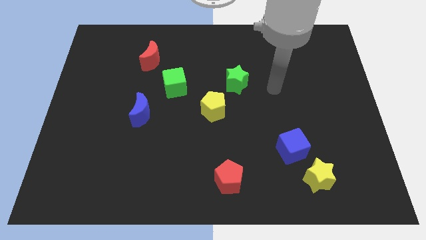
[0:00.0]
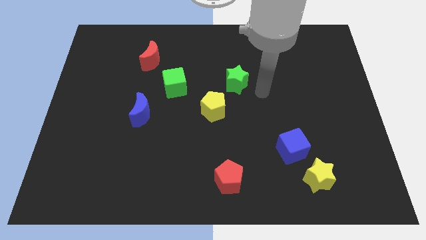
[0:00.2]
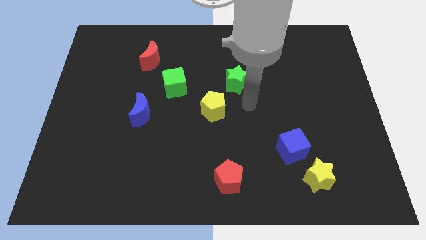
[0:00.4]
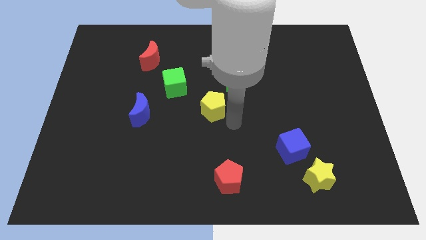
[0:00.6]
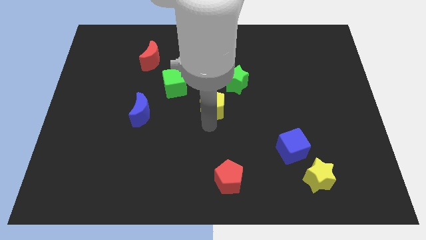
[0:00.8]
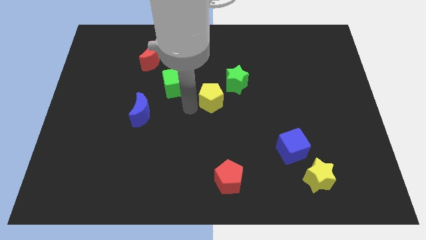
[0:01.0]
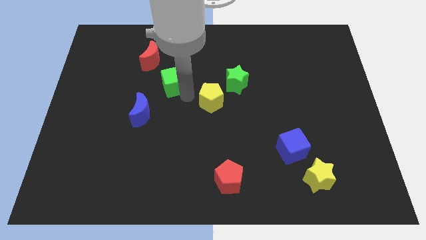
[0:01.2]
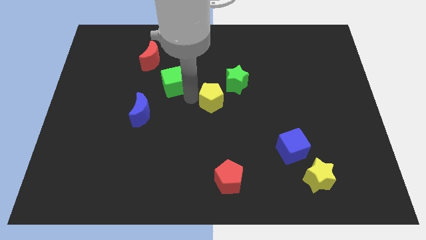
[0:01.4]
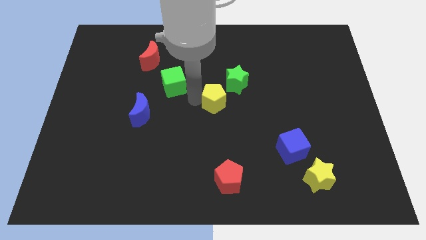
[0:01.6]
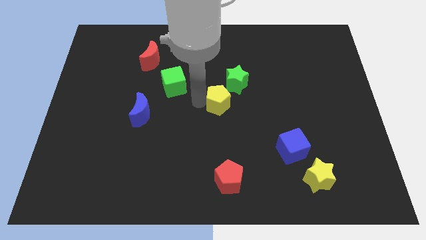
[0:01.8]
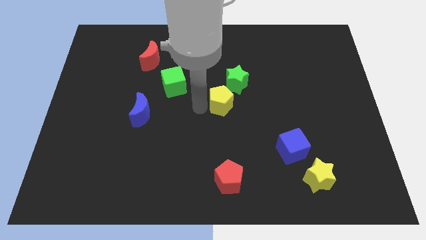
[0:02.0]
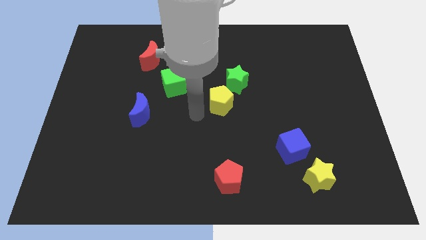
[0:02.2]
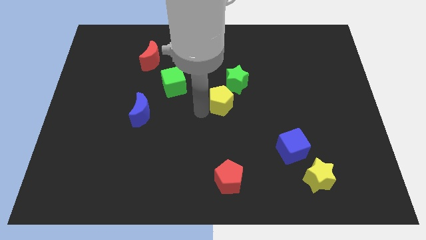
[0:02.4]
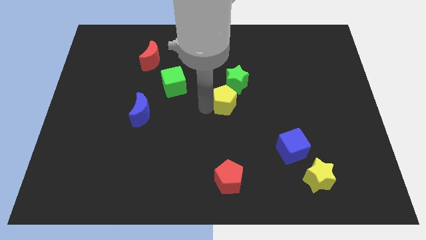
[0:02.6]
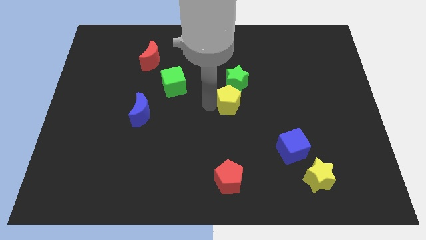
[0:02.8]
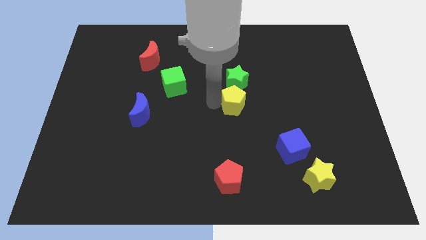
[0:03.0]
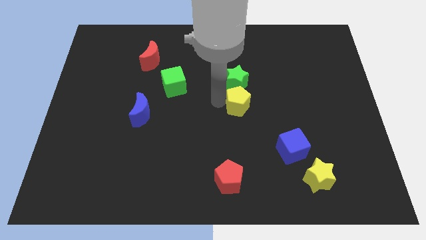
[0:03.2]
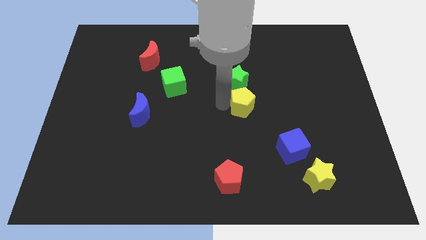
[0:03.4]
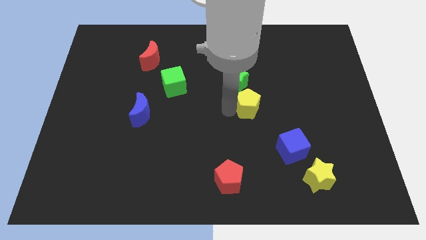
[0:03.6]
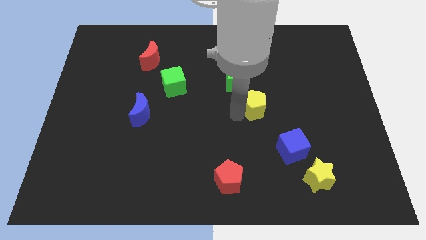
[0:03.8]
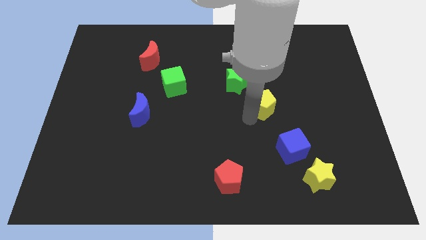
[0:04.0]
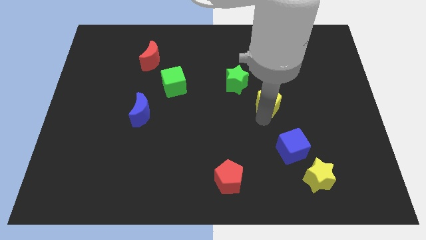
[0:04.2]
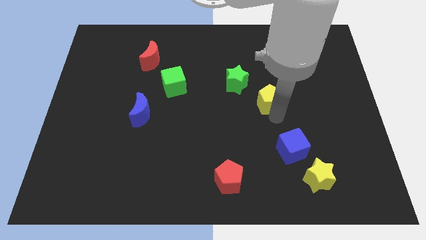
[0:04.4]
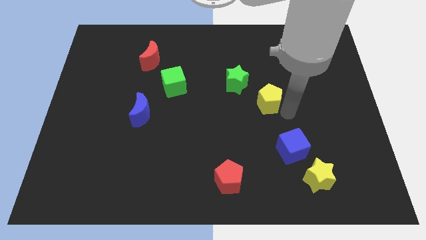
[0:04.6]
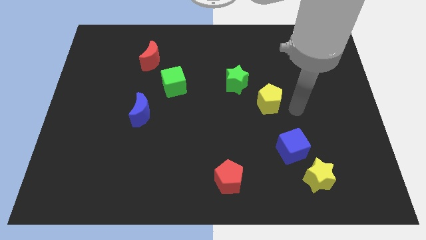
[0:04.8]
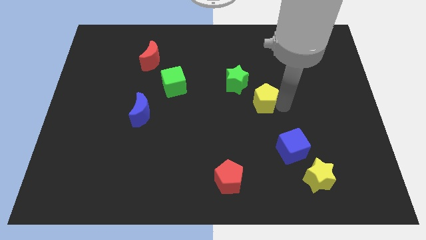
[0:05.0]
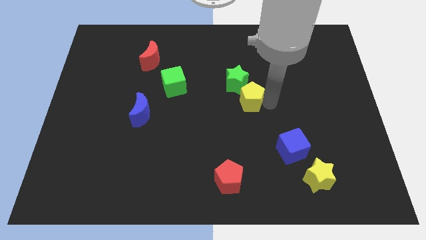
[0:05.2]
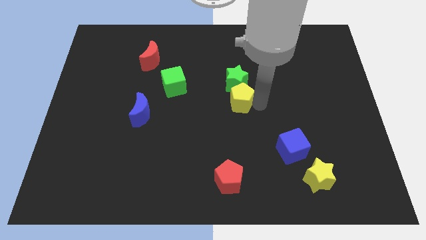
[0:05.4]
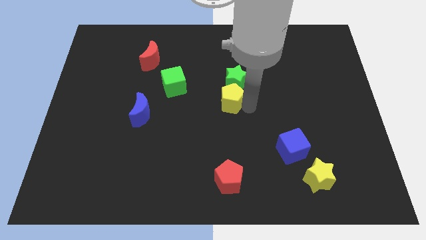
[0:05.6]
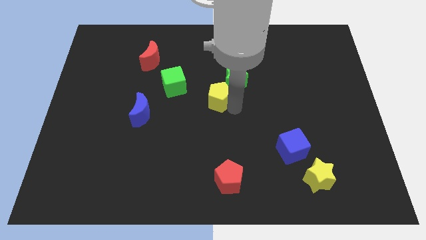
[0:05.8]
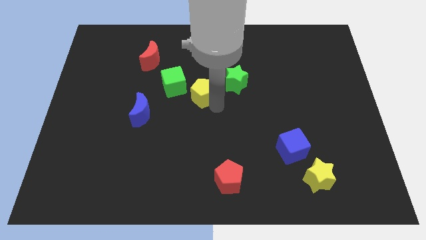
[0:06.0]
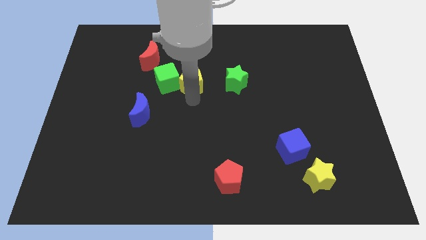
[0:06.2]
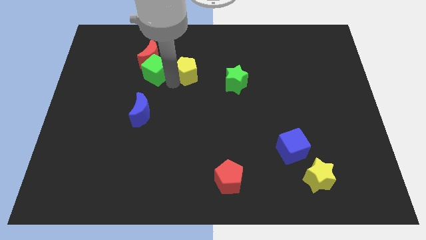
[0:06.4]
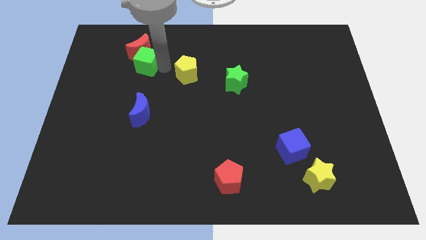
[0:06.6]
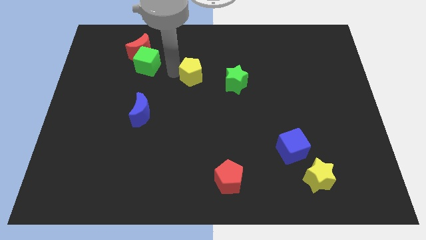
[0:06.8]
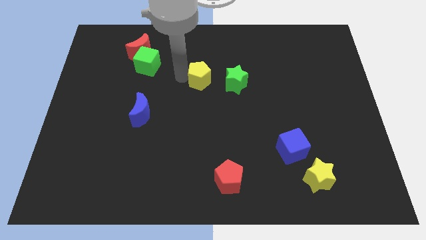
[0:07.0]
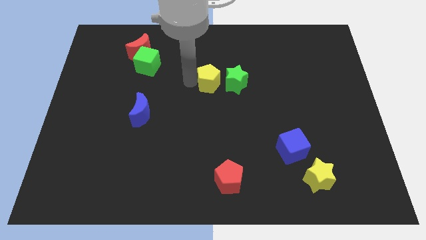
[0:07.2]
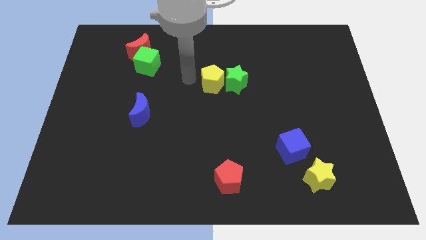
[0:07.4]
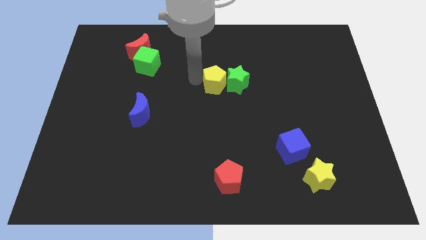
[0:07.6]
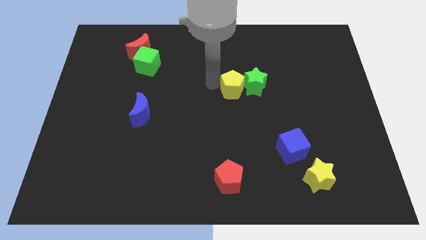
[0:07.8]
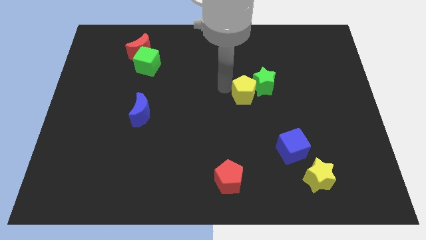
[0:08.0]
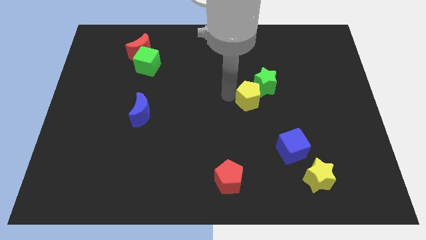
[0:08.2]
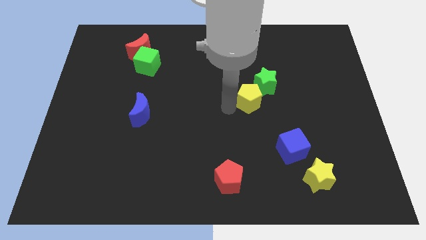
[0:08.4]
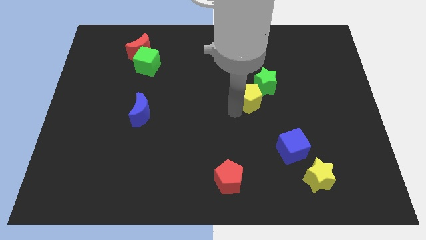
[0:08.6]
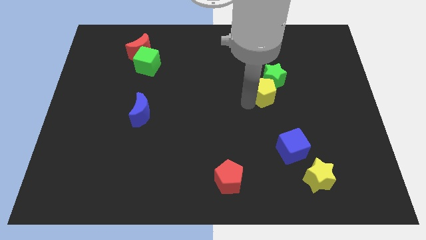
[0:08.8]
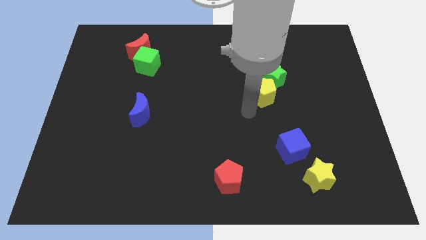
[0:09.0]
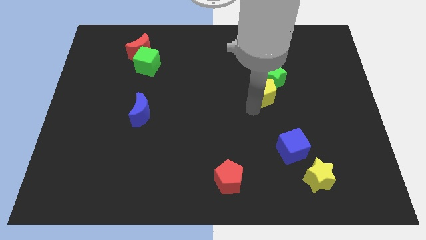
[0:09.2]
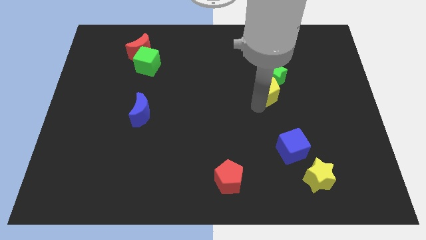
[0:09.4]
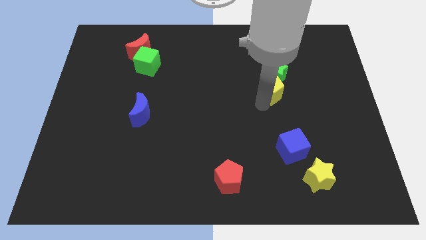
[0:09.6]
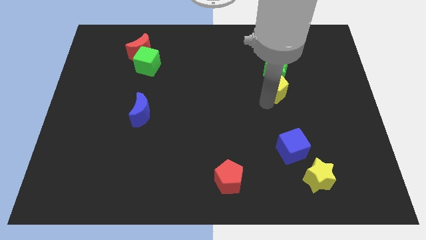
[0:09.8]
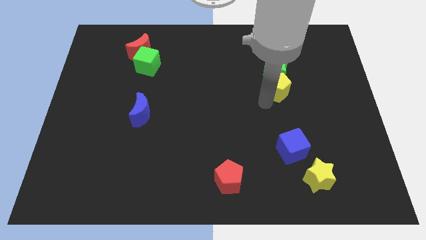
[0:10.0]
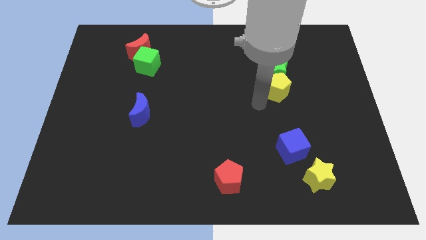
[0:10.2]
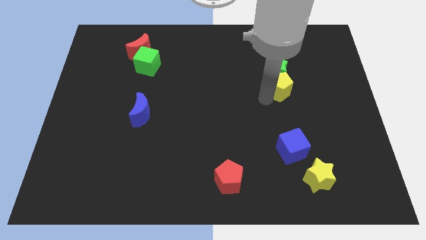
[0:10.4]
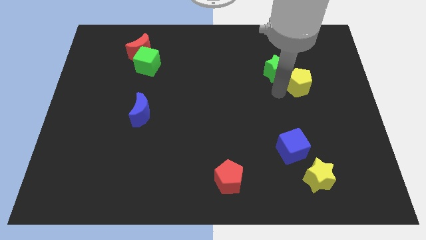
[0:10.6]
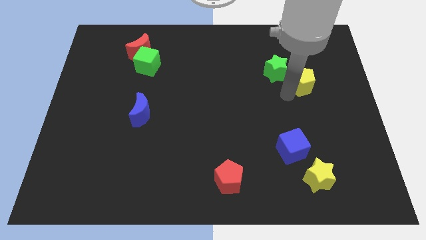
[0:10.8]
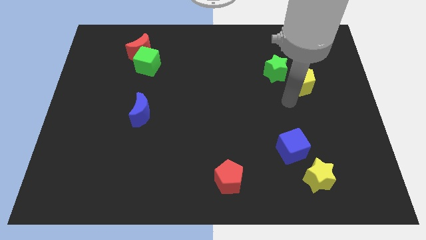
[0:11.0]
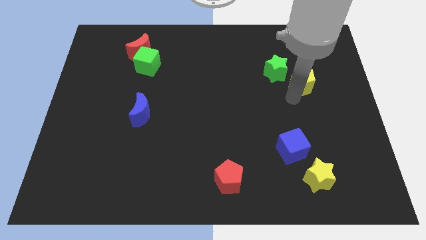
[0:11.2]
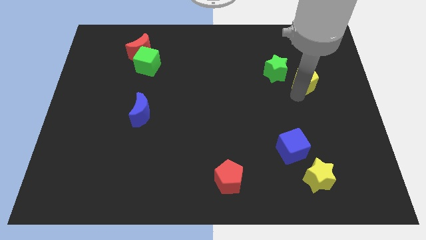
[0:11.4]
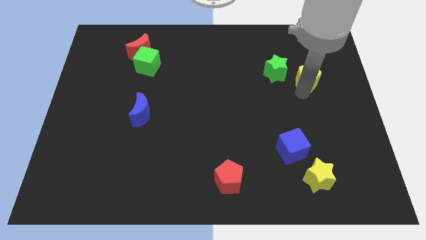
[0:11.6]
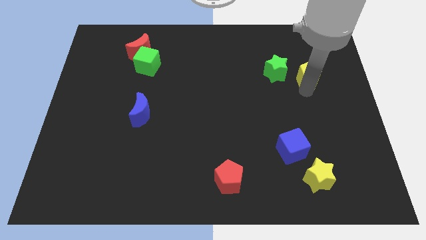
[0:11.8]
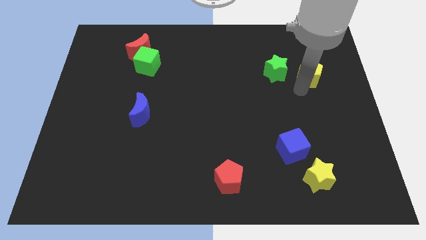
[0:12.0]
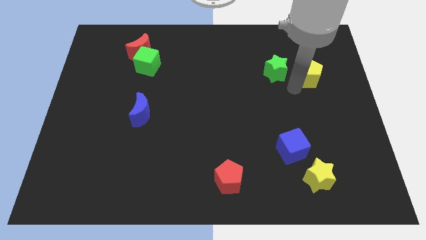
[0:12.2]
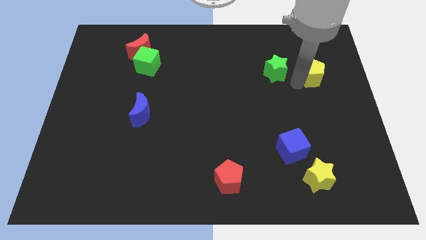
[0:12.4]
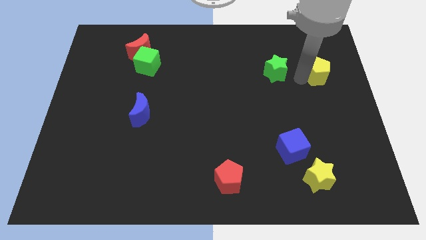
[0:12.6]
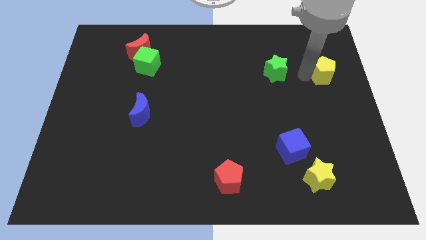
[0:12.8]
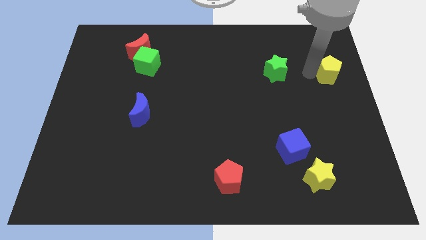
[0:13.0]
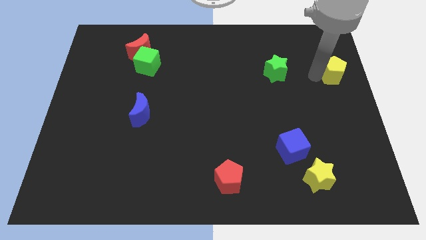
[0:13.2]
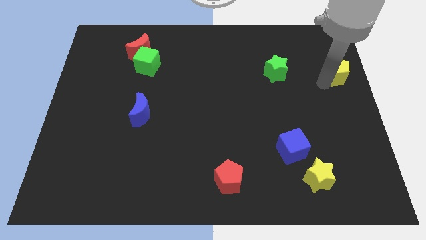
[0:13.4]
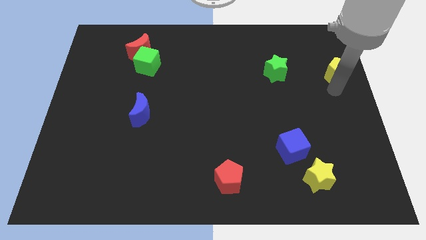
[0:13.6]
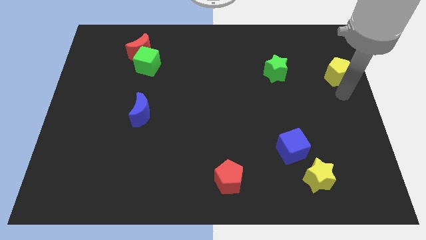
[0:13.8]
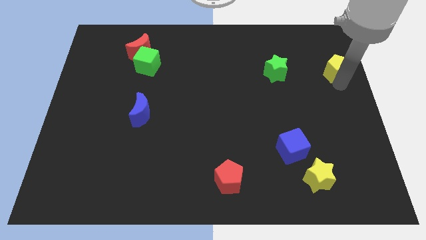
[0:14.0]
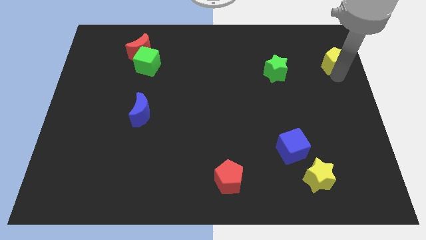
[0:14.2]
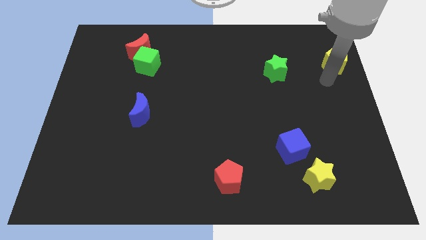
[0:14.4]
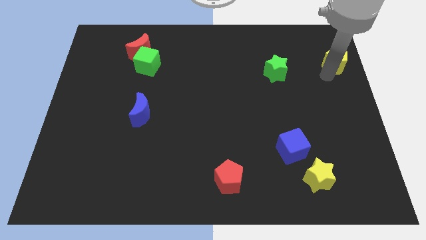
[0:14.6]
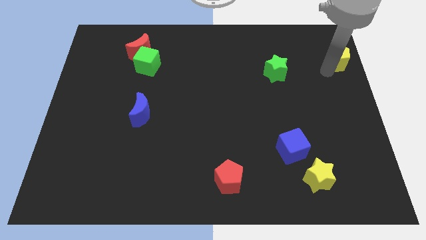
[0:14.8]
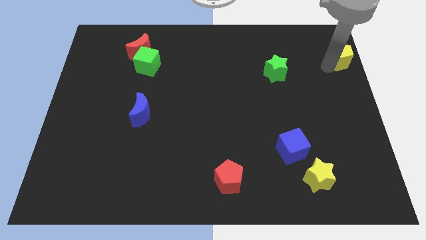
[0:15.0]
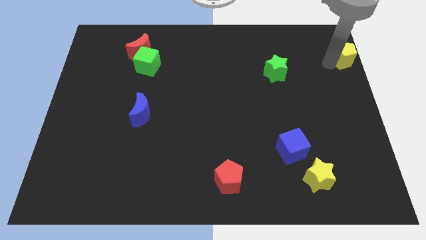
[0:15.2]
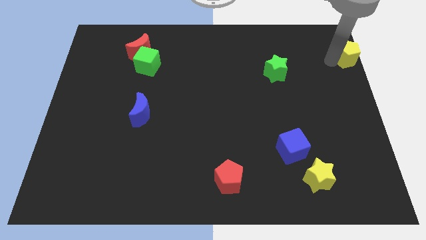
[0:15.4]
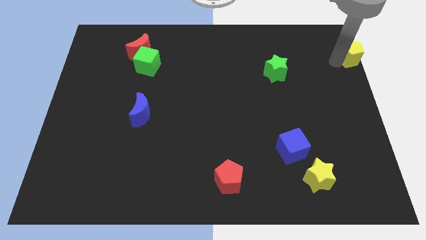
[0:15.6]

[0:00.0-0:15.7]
move the yellow pentagon to the upper right corner
